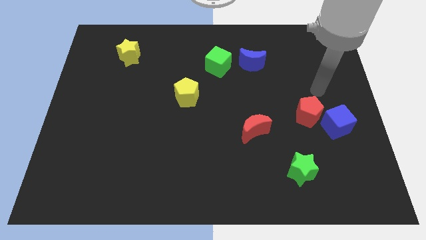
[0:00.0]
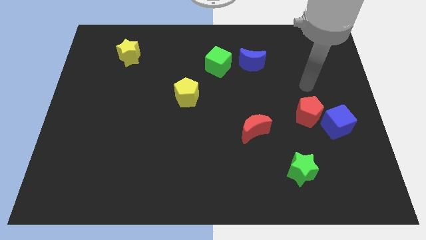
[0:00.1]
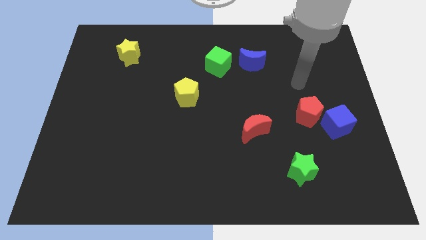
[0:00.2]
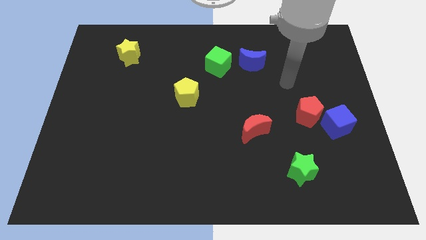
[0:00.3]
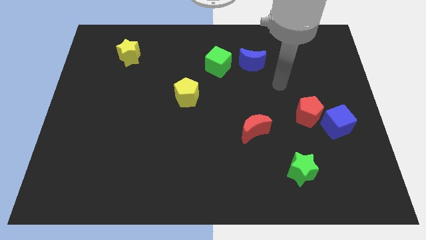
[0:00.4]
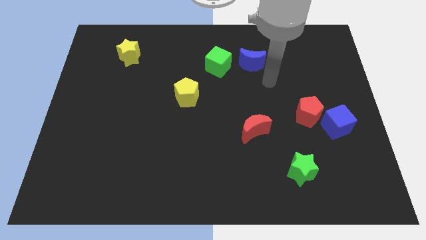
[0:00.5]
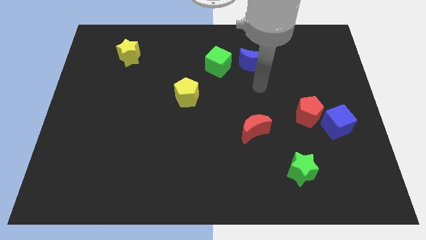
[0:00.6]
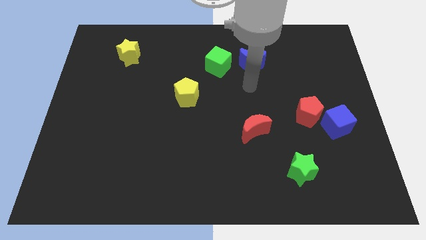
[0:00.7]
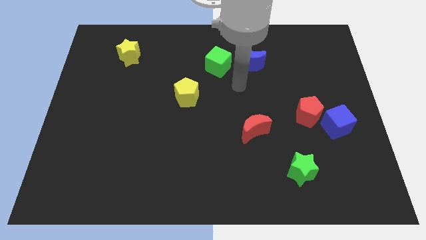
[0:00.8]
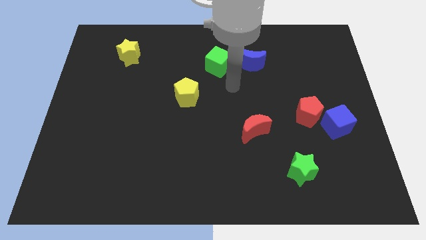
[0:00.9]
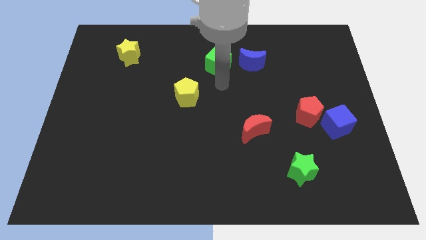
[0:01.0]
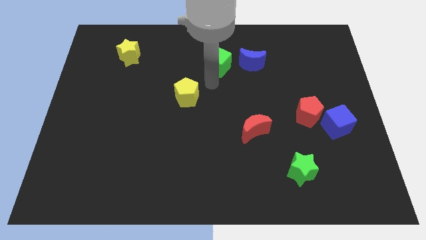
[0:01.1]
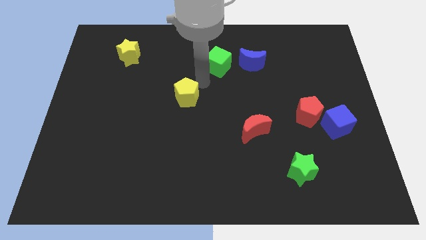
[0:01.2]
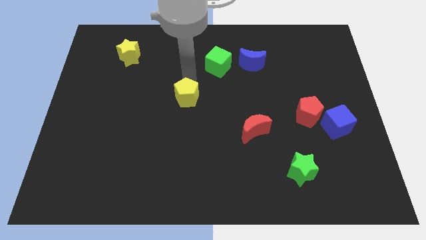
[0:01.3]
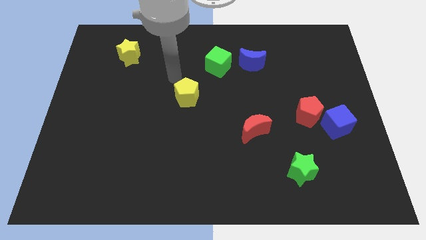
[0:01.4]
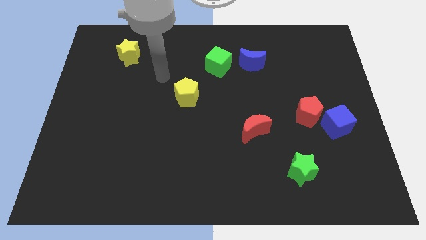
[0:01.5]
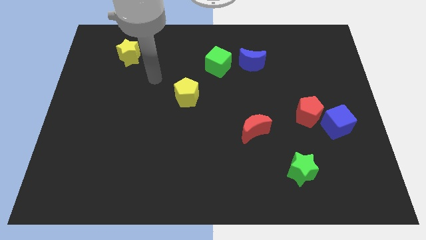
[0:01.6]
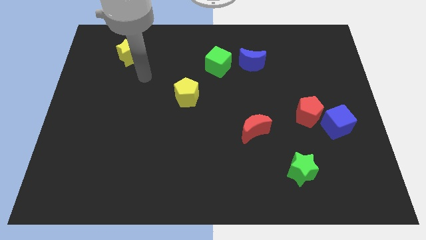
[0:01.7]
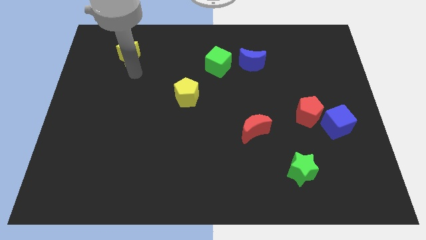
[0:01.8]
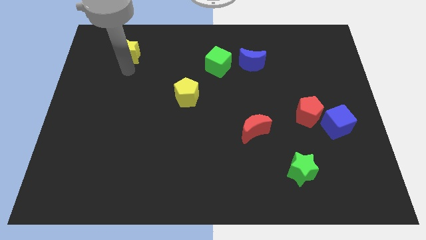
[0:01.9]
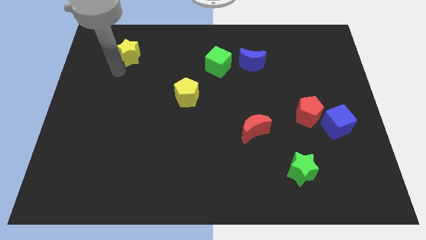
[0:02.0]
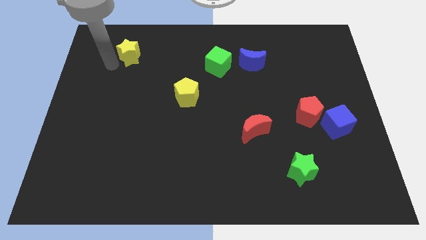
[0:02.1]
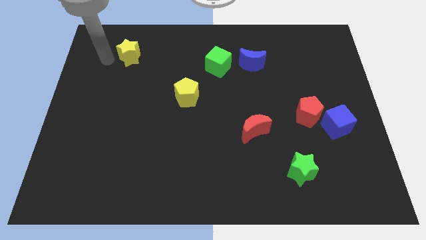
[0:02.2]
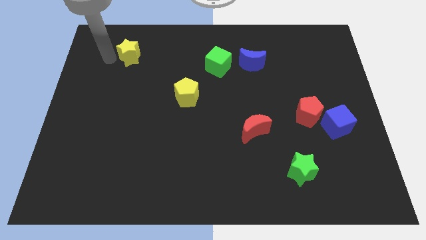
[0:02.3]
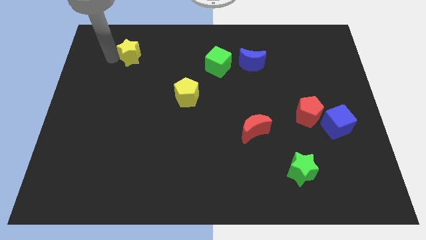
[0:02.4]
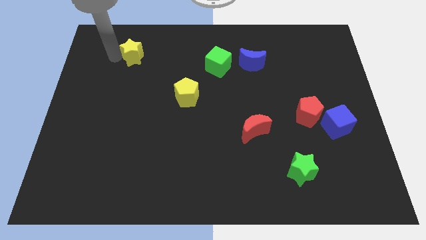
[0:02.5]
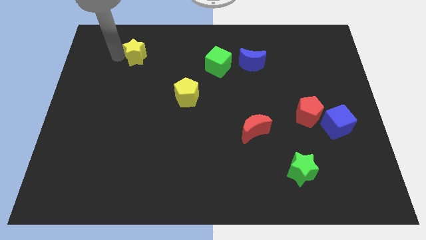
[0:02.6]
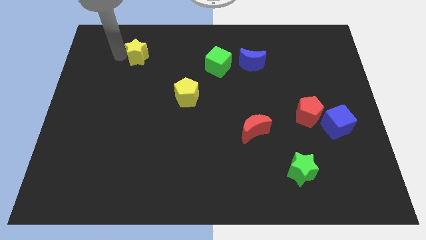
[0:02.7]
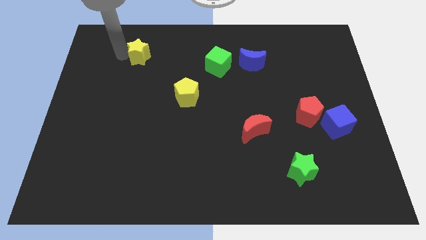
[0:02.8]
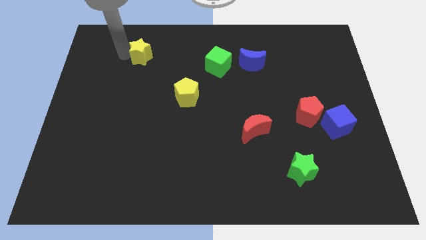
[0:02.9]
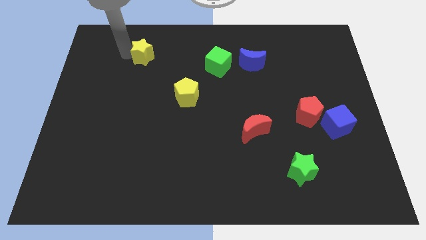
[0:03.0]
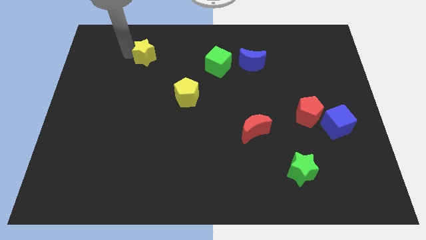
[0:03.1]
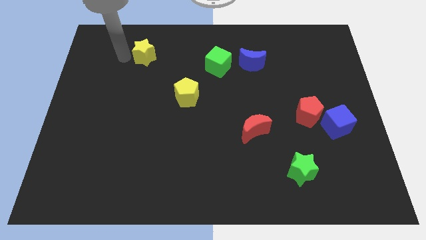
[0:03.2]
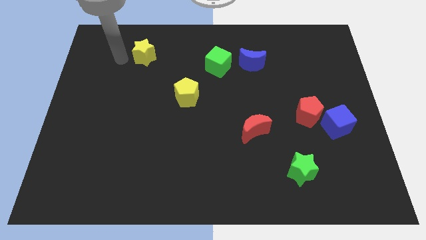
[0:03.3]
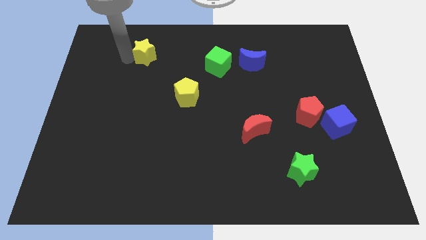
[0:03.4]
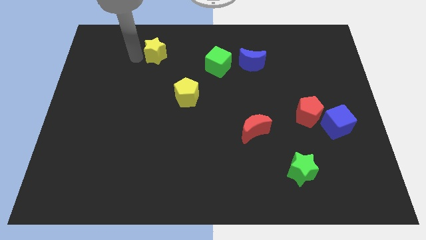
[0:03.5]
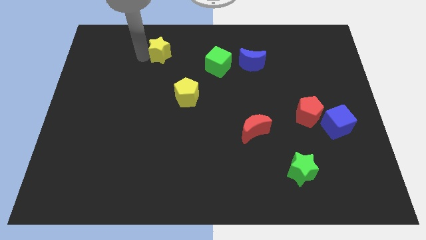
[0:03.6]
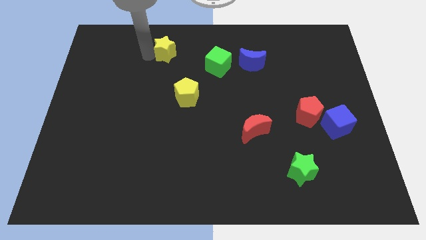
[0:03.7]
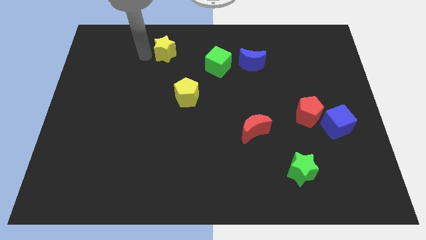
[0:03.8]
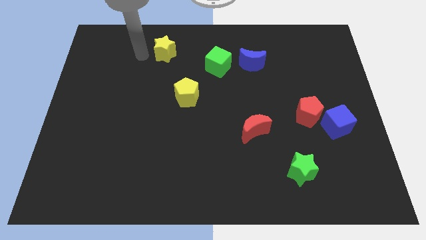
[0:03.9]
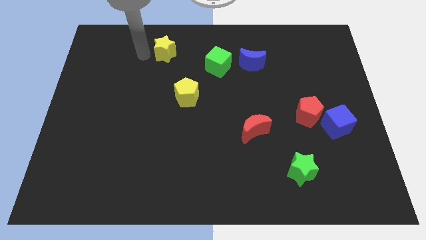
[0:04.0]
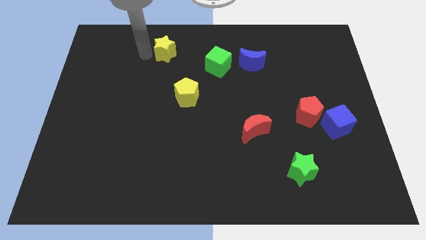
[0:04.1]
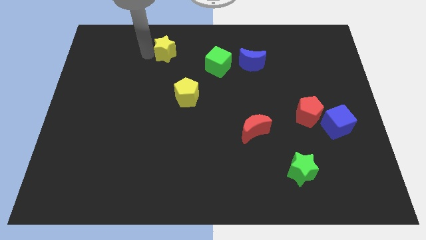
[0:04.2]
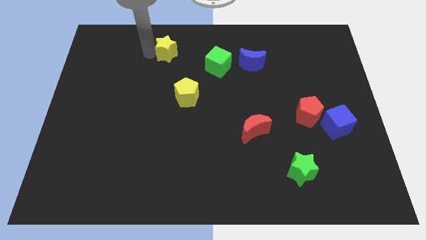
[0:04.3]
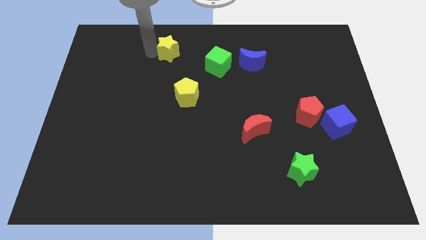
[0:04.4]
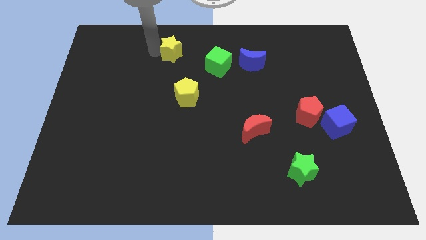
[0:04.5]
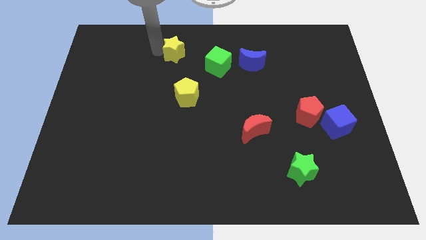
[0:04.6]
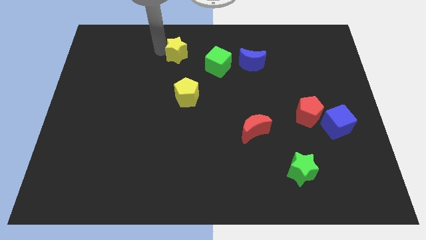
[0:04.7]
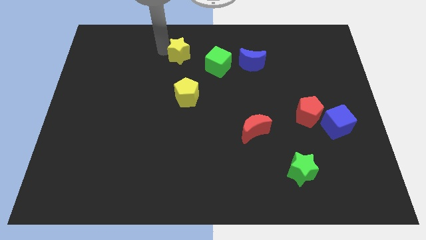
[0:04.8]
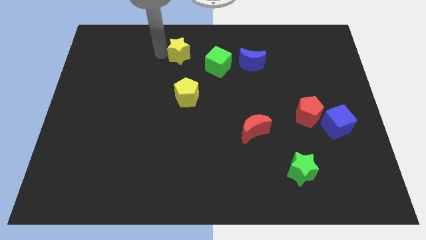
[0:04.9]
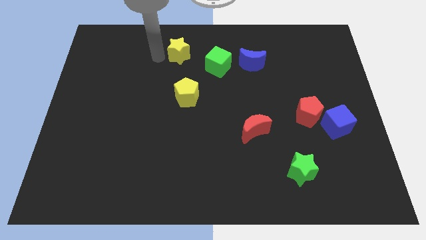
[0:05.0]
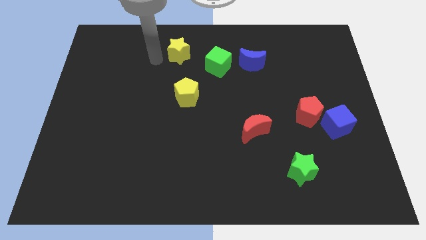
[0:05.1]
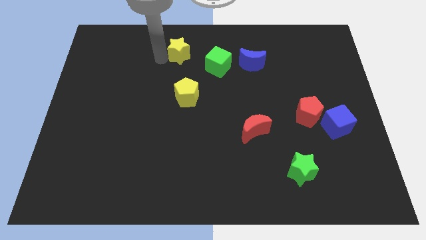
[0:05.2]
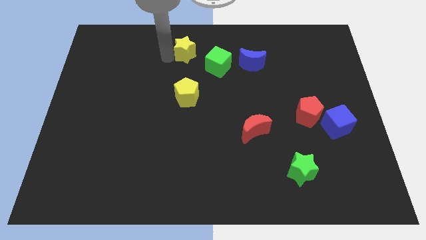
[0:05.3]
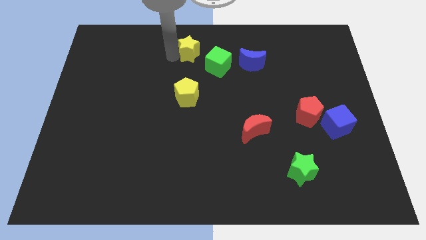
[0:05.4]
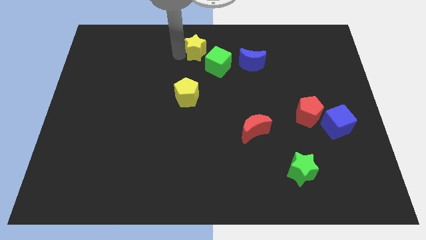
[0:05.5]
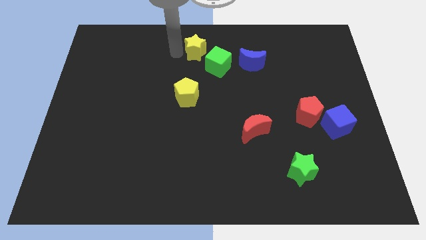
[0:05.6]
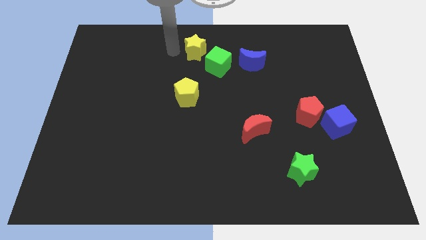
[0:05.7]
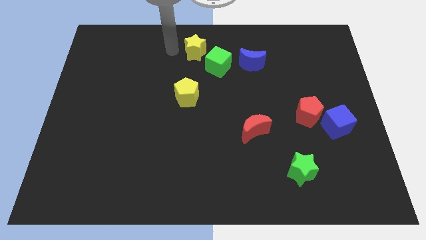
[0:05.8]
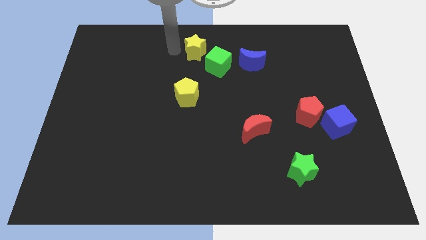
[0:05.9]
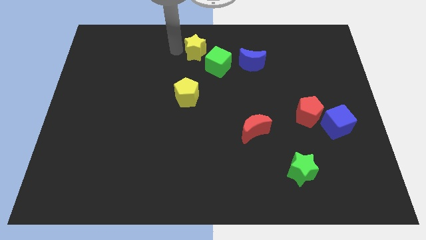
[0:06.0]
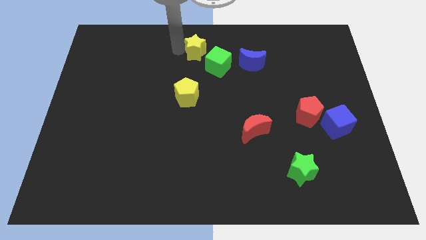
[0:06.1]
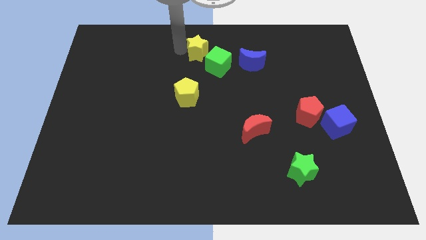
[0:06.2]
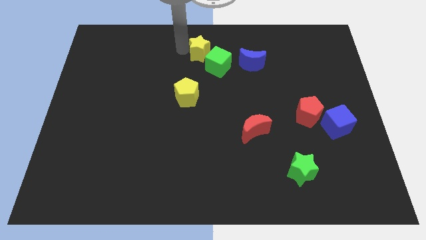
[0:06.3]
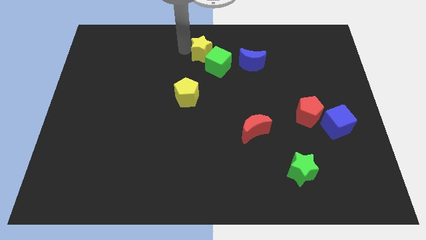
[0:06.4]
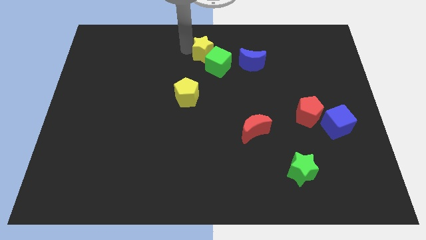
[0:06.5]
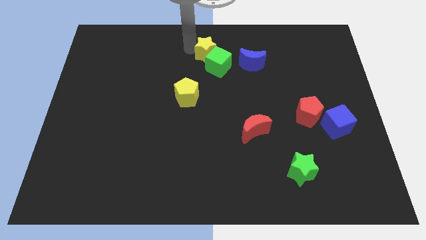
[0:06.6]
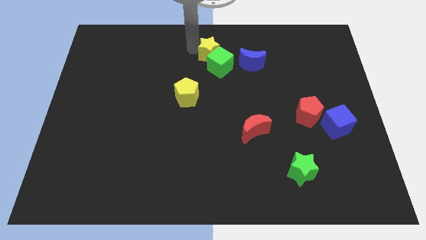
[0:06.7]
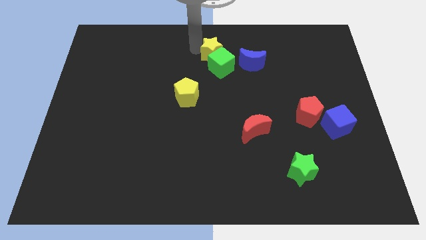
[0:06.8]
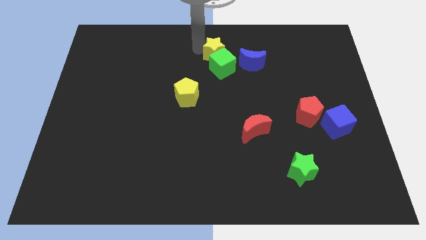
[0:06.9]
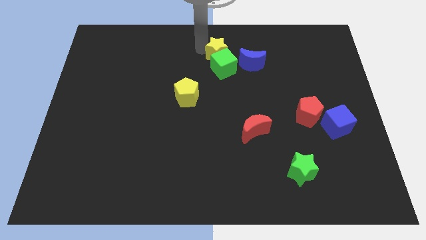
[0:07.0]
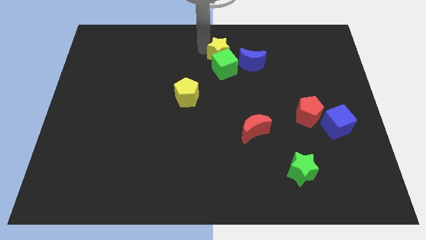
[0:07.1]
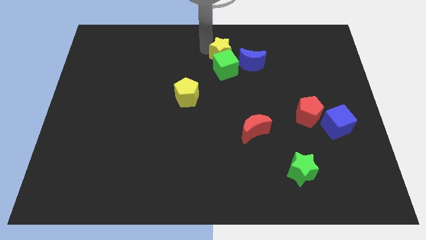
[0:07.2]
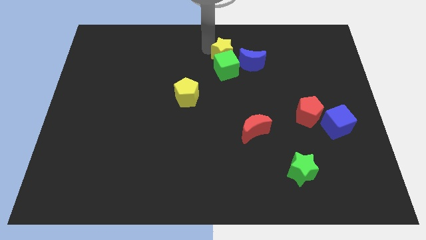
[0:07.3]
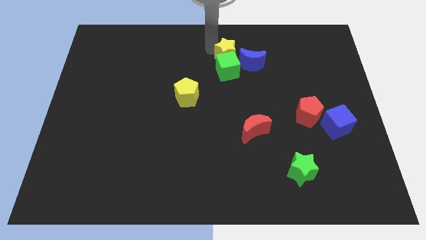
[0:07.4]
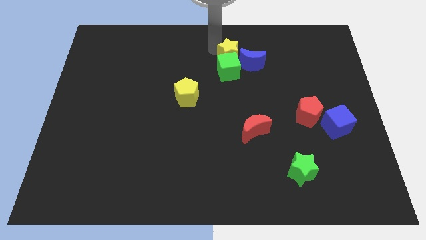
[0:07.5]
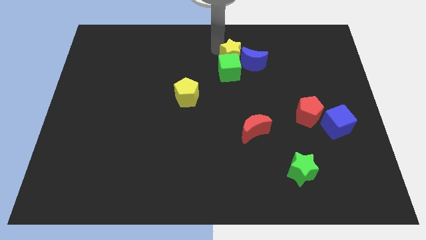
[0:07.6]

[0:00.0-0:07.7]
push the yellow star towards the blue moon
